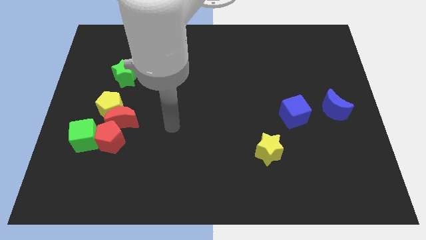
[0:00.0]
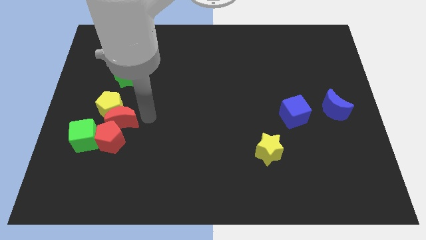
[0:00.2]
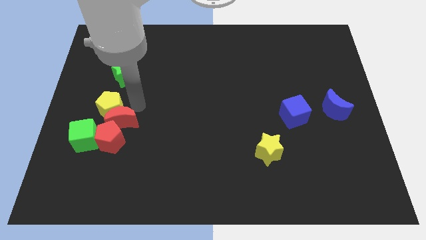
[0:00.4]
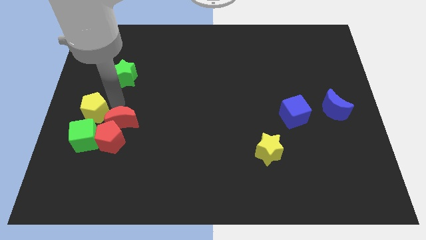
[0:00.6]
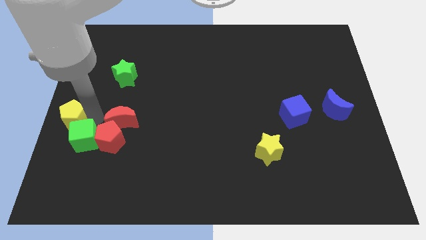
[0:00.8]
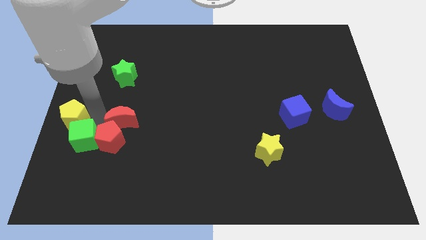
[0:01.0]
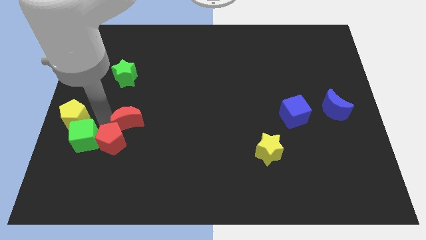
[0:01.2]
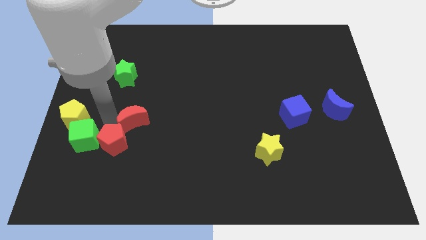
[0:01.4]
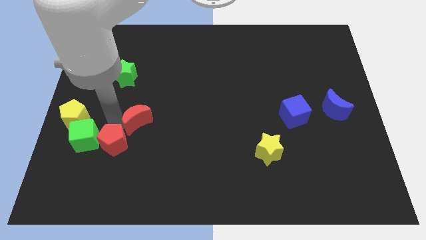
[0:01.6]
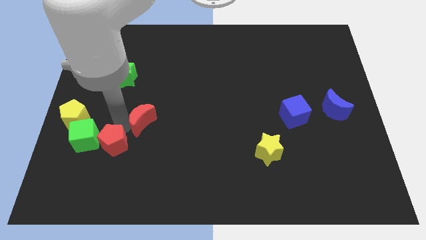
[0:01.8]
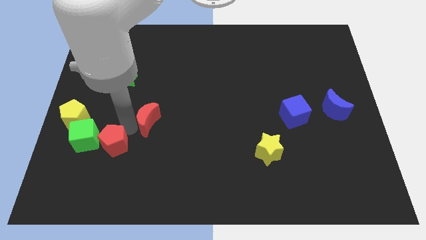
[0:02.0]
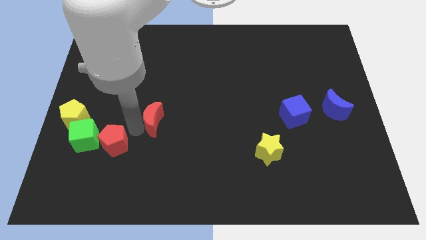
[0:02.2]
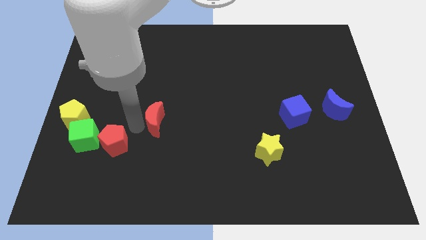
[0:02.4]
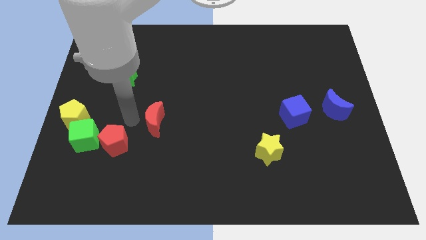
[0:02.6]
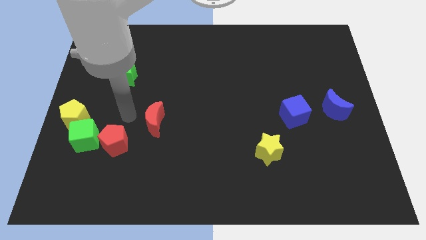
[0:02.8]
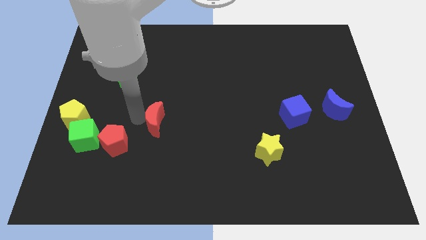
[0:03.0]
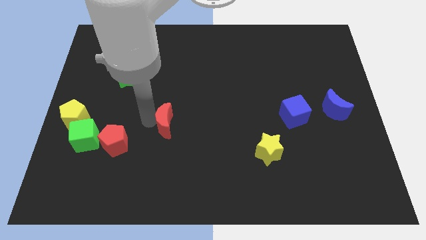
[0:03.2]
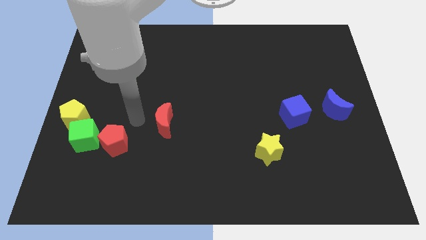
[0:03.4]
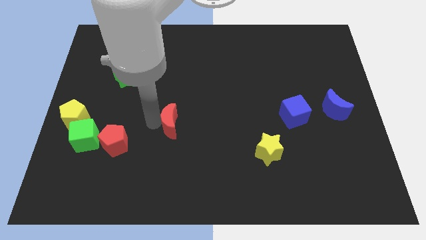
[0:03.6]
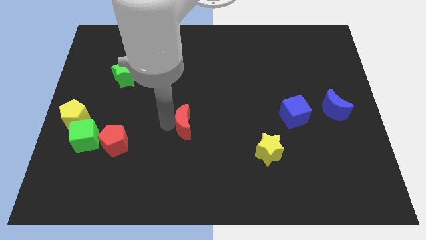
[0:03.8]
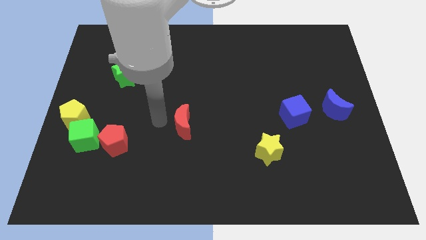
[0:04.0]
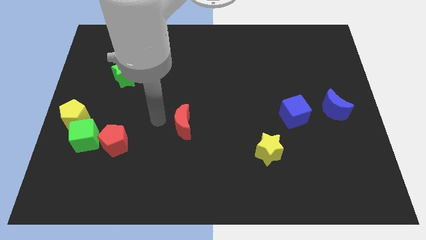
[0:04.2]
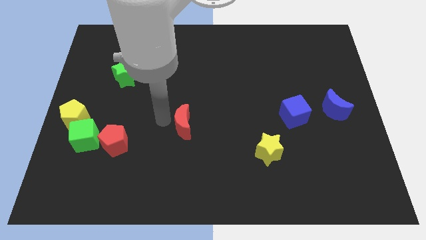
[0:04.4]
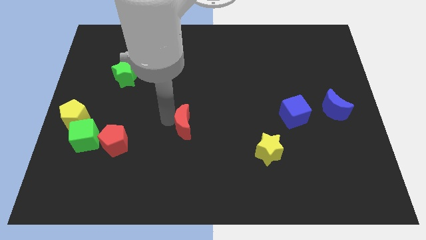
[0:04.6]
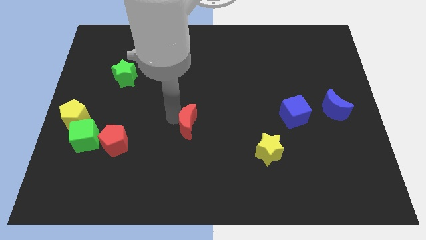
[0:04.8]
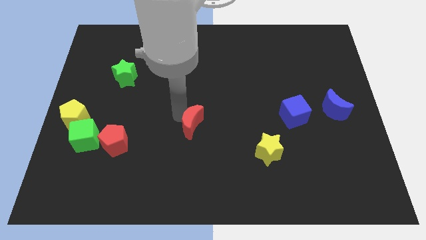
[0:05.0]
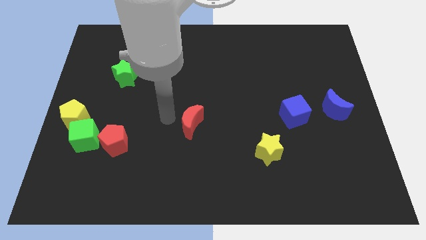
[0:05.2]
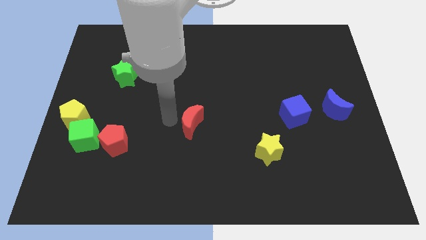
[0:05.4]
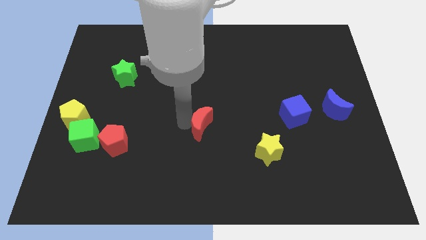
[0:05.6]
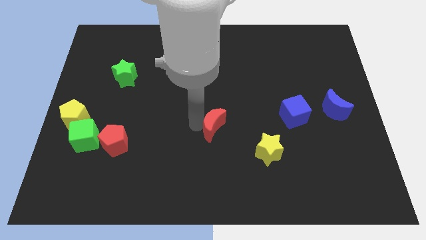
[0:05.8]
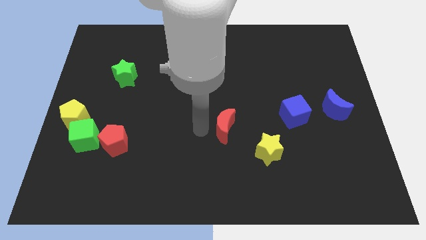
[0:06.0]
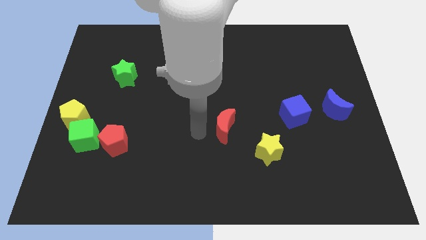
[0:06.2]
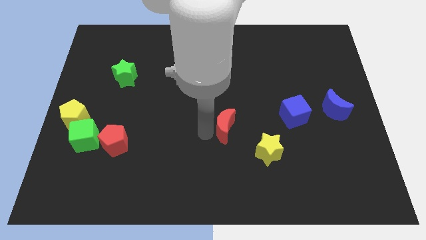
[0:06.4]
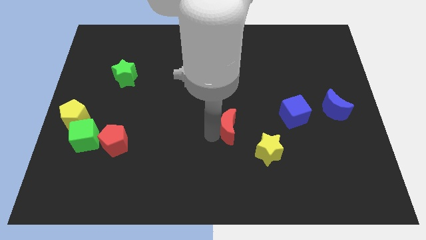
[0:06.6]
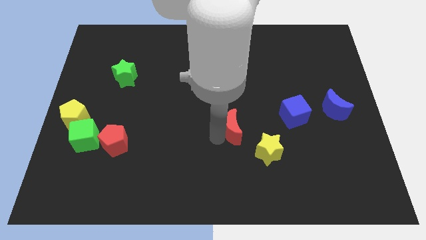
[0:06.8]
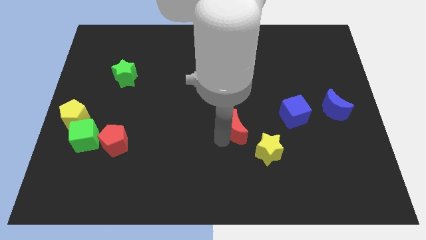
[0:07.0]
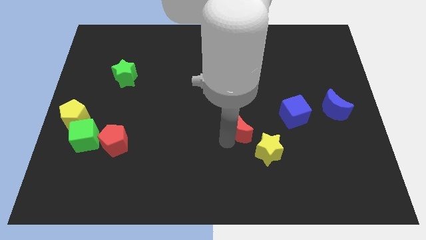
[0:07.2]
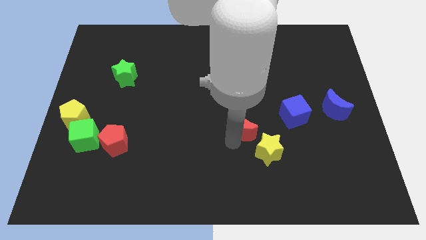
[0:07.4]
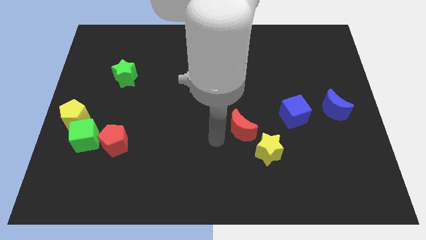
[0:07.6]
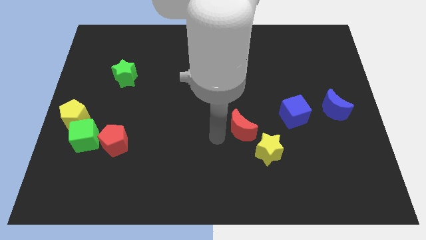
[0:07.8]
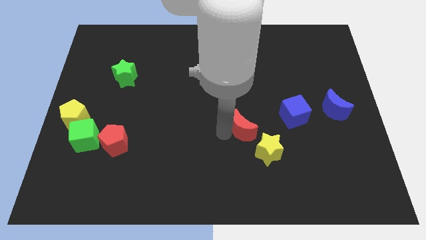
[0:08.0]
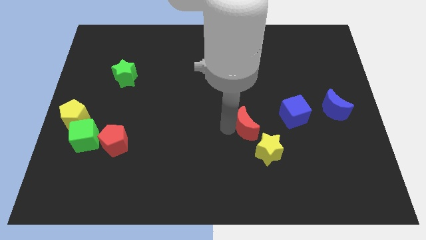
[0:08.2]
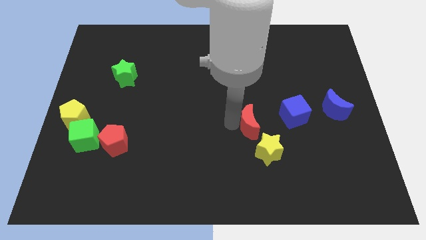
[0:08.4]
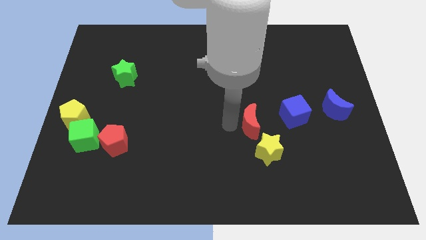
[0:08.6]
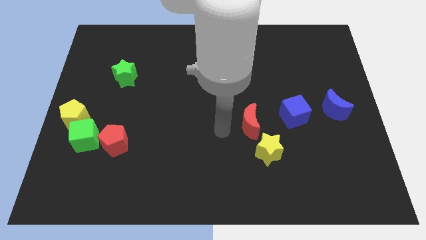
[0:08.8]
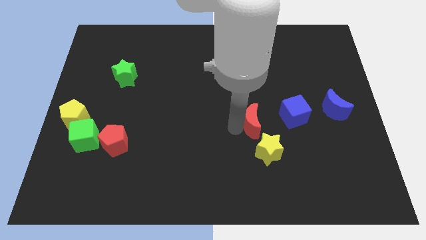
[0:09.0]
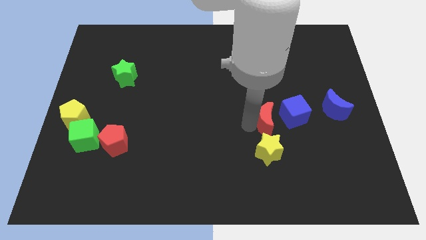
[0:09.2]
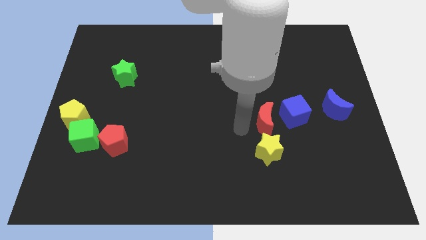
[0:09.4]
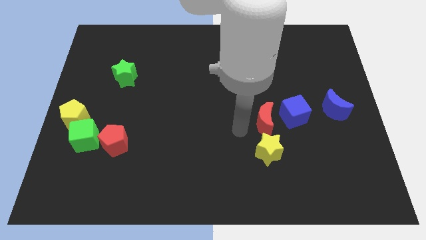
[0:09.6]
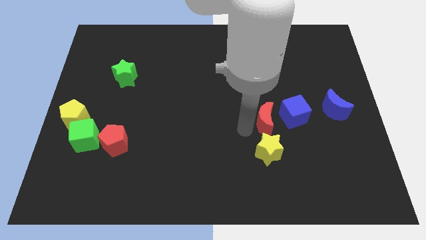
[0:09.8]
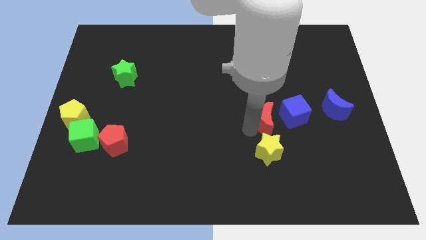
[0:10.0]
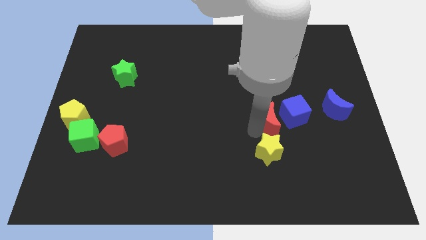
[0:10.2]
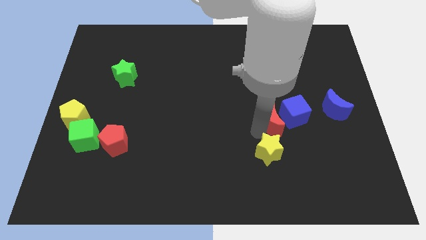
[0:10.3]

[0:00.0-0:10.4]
push the red moon to the blue cube
